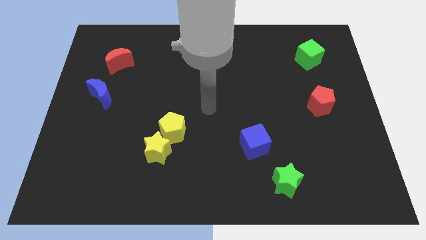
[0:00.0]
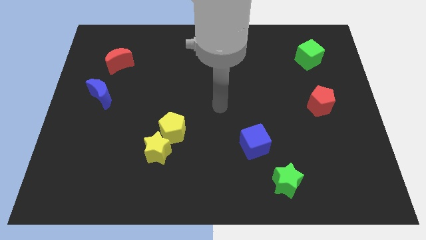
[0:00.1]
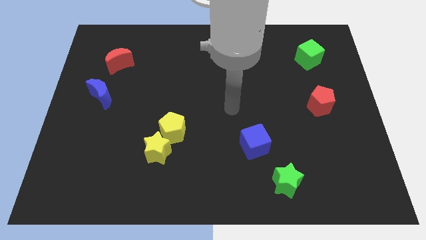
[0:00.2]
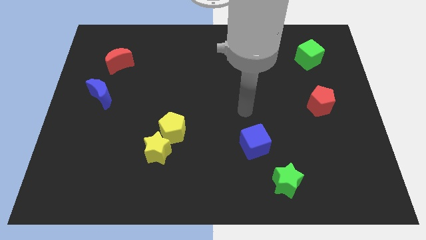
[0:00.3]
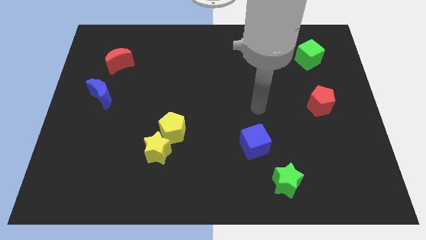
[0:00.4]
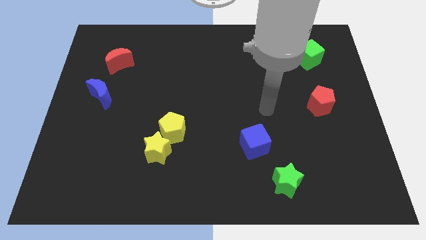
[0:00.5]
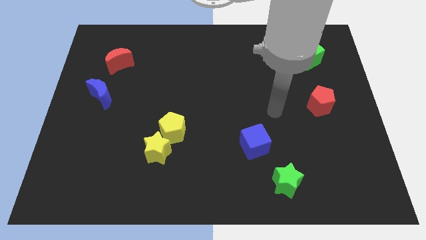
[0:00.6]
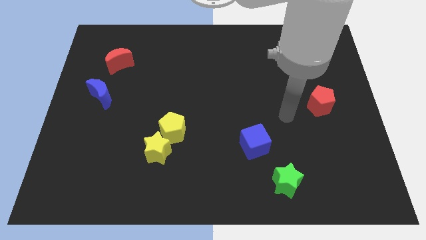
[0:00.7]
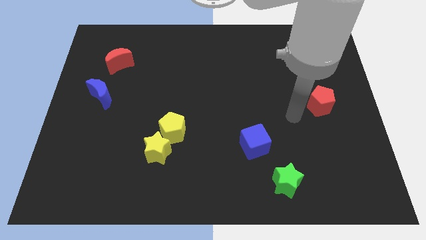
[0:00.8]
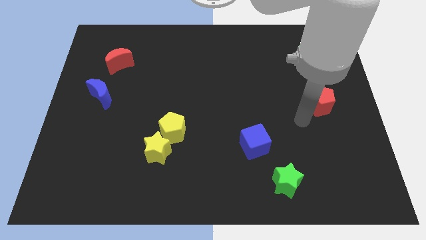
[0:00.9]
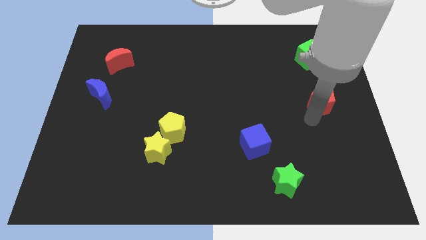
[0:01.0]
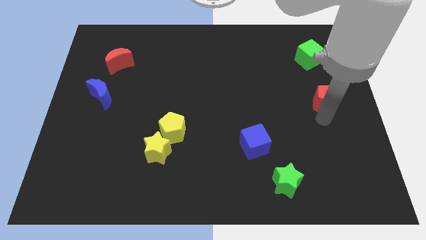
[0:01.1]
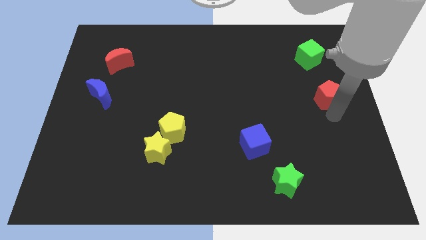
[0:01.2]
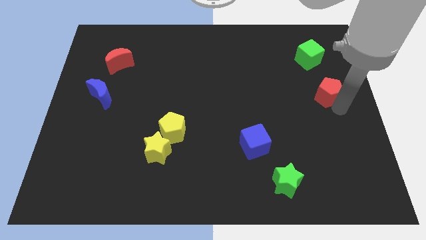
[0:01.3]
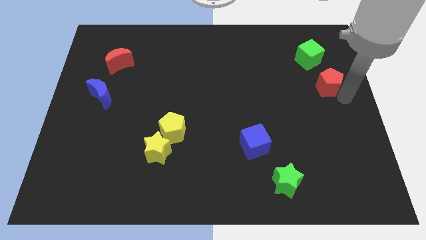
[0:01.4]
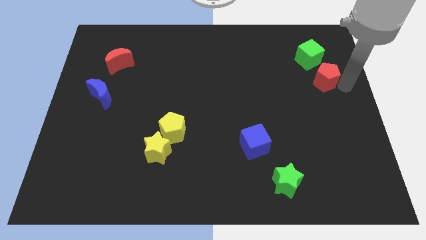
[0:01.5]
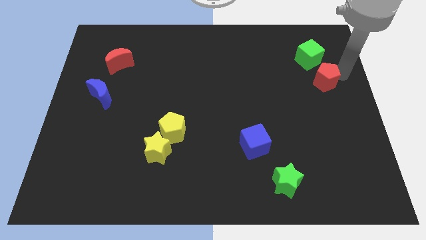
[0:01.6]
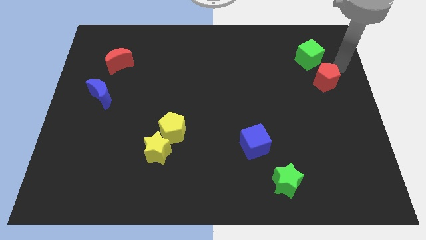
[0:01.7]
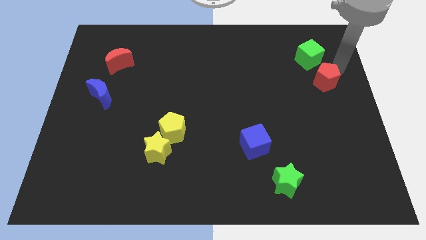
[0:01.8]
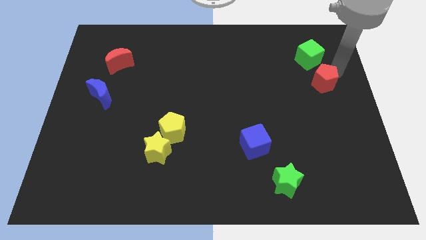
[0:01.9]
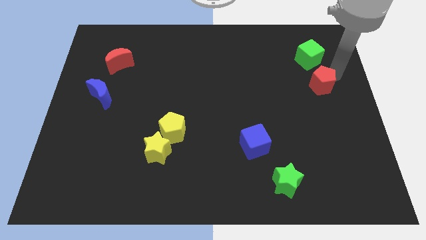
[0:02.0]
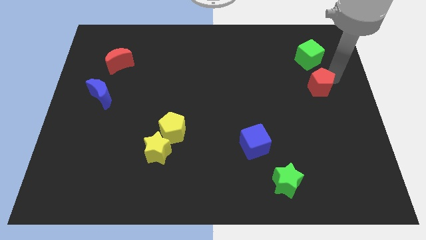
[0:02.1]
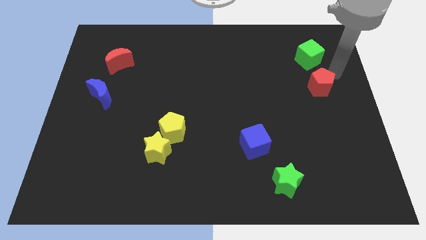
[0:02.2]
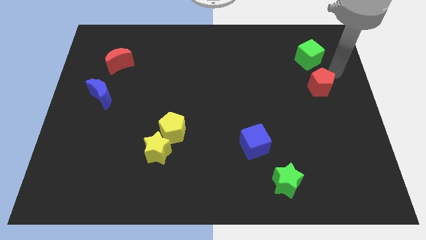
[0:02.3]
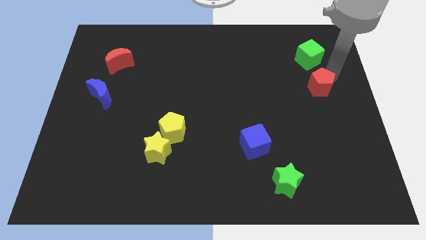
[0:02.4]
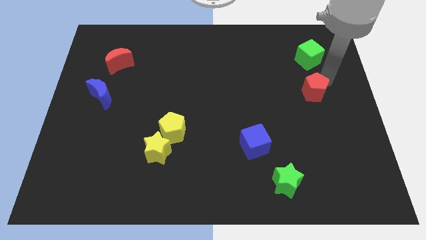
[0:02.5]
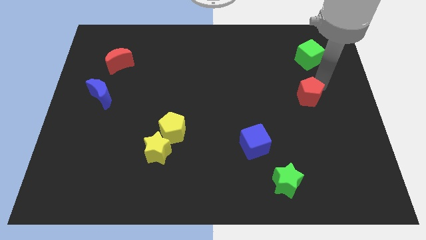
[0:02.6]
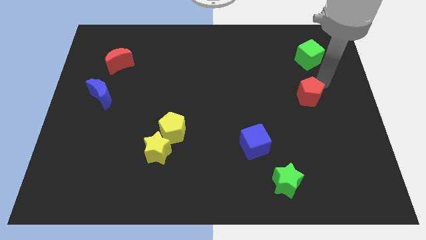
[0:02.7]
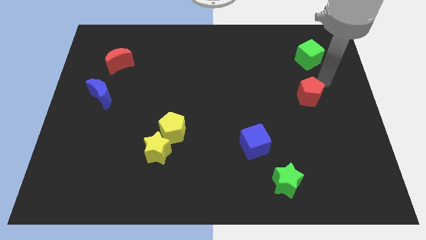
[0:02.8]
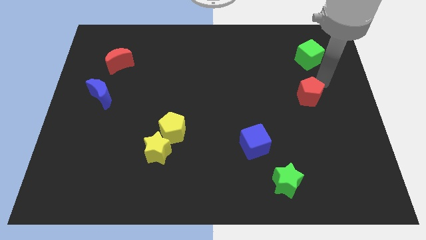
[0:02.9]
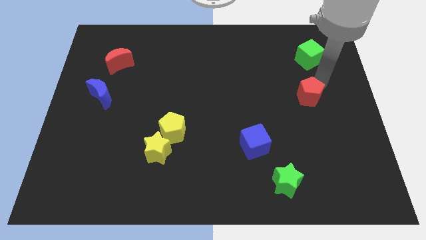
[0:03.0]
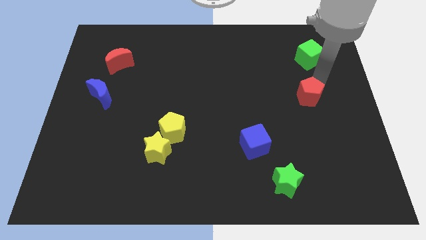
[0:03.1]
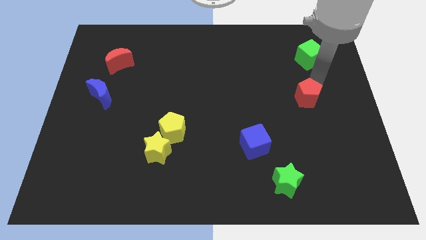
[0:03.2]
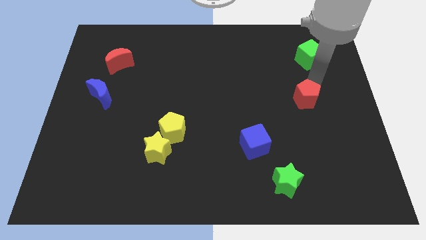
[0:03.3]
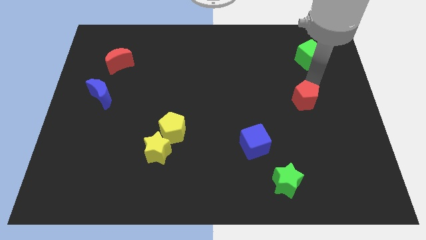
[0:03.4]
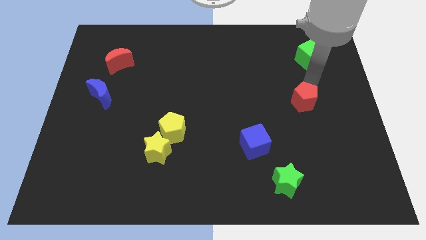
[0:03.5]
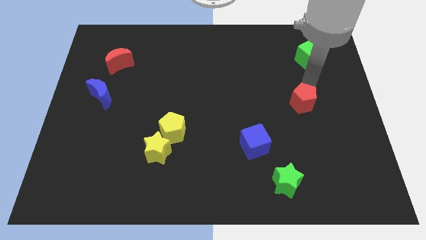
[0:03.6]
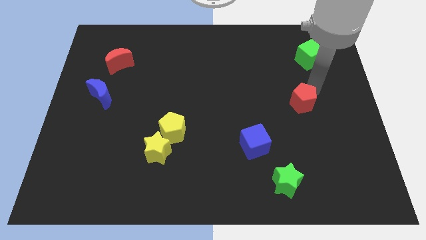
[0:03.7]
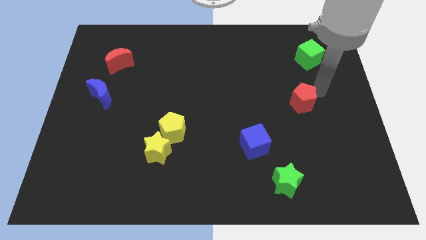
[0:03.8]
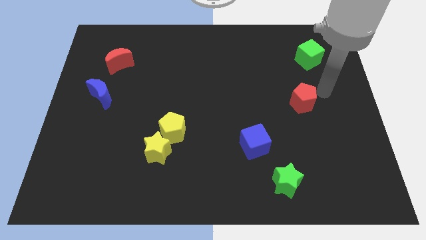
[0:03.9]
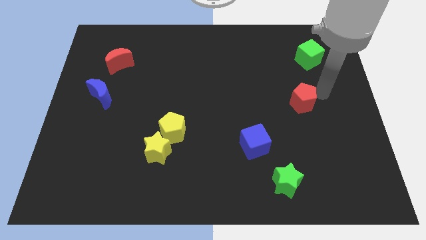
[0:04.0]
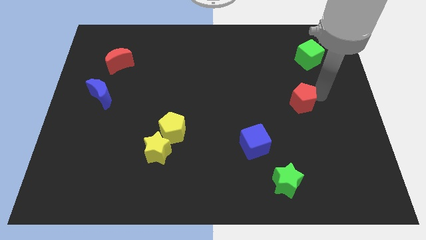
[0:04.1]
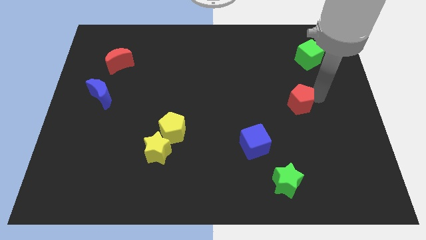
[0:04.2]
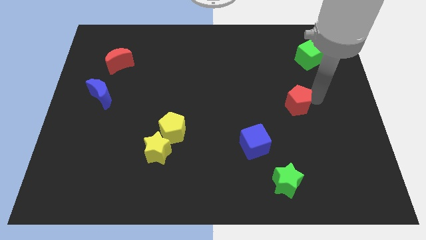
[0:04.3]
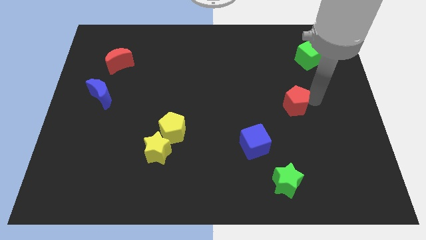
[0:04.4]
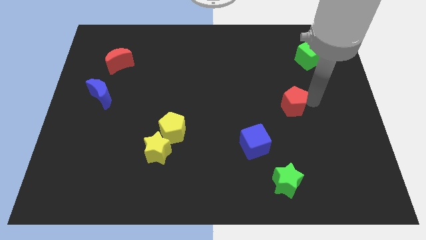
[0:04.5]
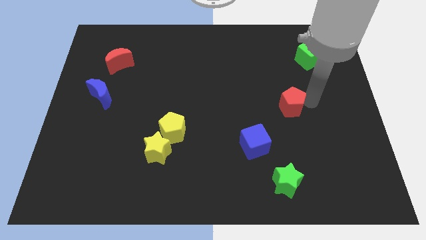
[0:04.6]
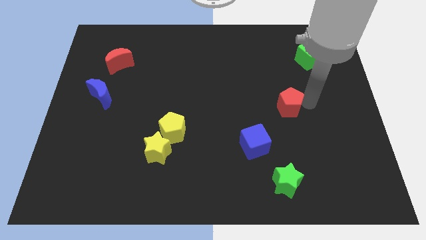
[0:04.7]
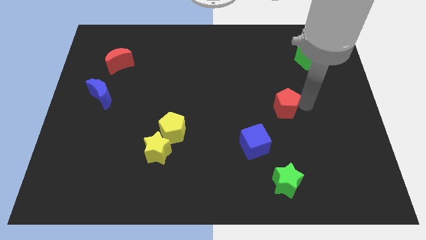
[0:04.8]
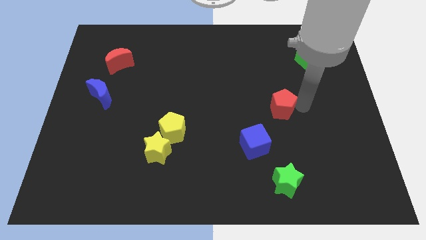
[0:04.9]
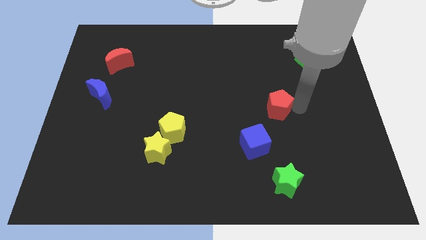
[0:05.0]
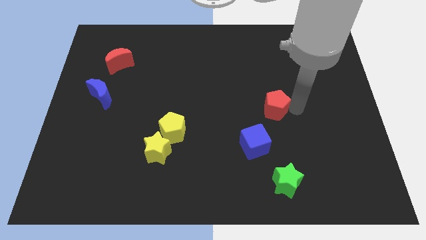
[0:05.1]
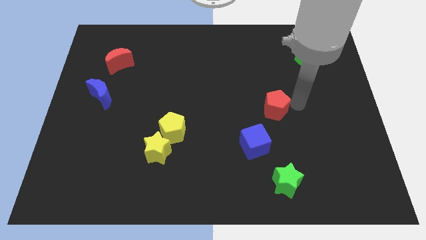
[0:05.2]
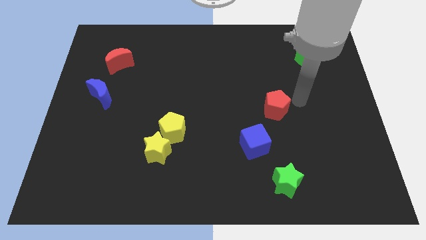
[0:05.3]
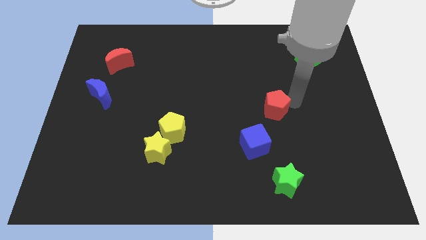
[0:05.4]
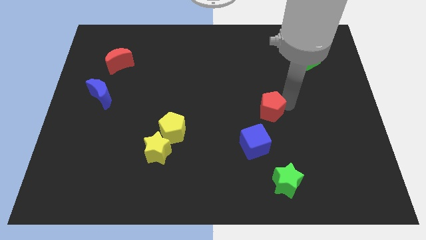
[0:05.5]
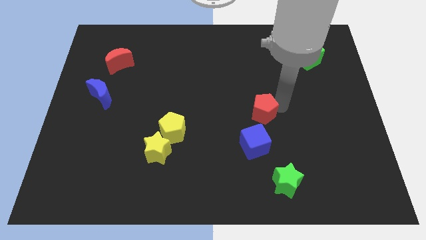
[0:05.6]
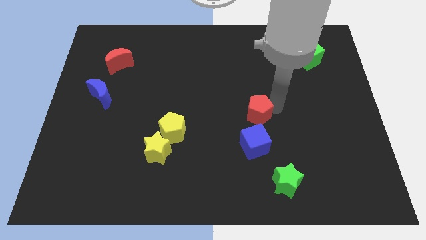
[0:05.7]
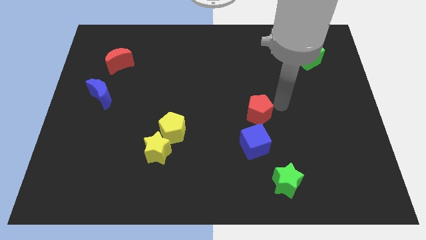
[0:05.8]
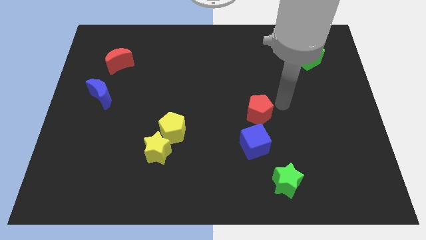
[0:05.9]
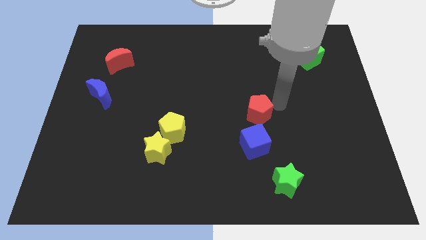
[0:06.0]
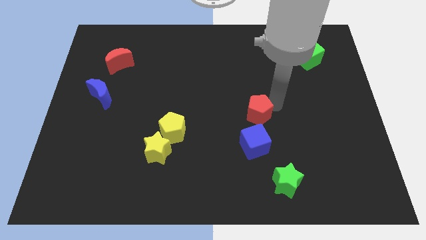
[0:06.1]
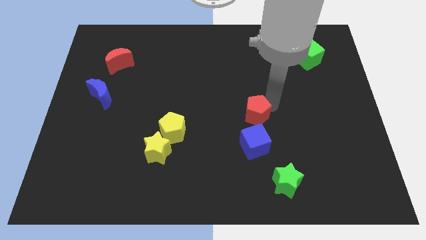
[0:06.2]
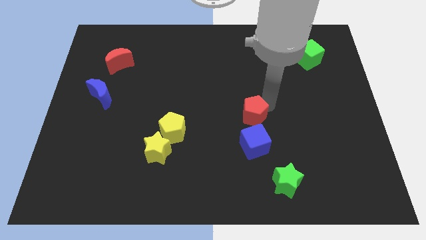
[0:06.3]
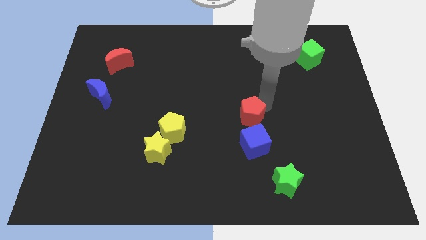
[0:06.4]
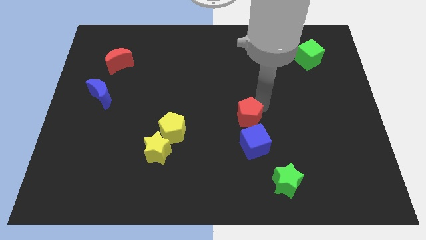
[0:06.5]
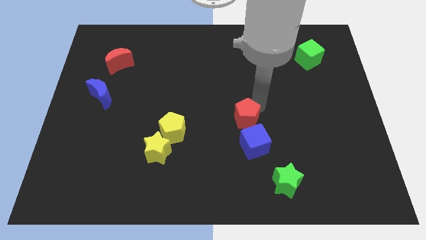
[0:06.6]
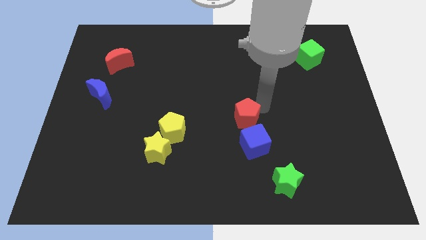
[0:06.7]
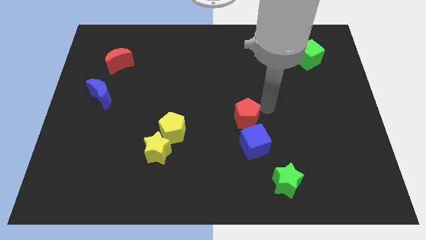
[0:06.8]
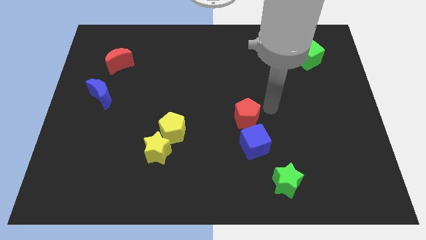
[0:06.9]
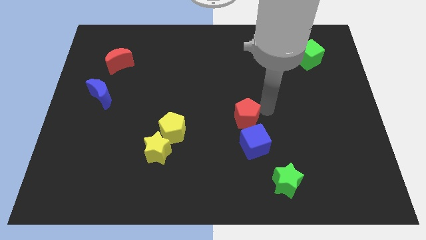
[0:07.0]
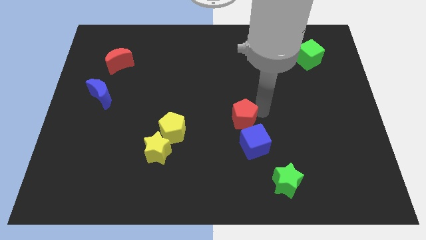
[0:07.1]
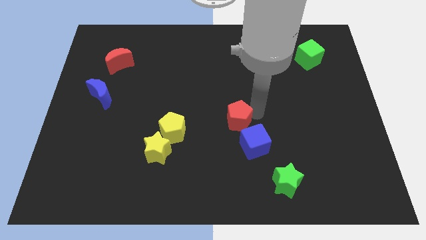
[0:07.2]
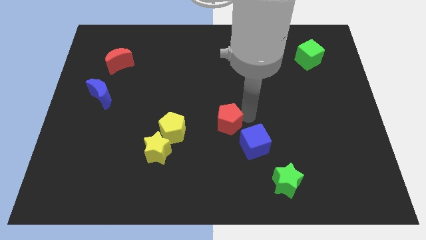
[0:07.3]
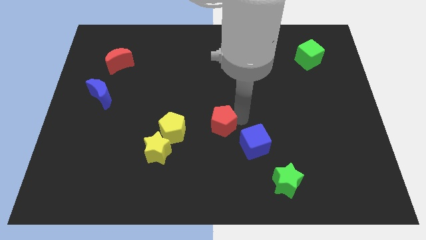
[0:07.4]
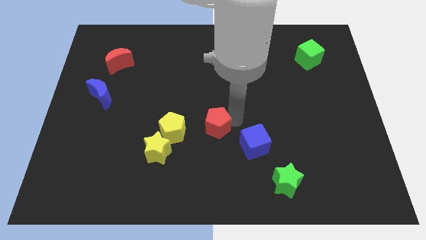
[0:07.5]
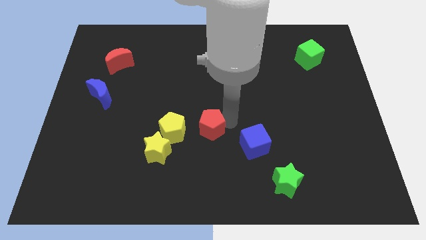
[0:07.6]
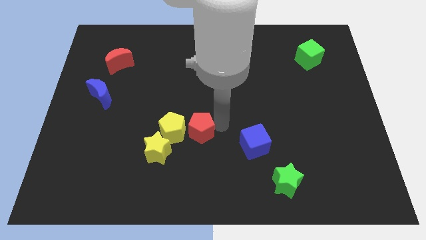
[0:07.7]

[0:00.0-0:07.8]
put the red pentagon next to the yellow pentagon
